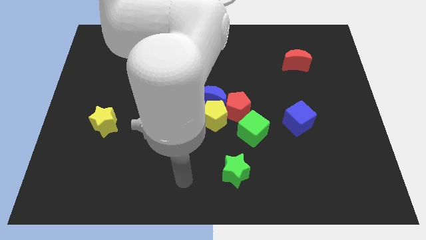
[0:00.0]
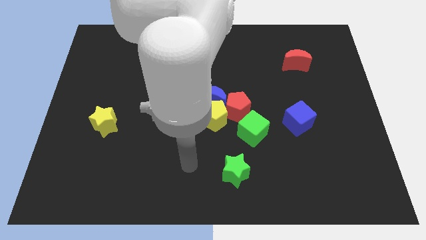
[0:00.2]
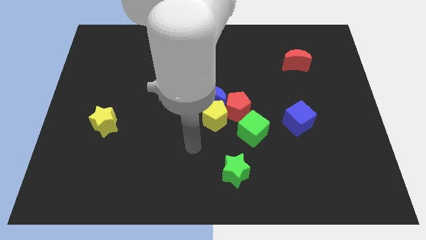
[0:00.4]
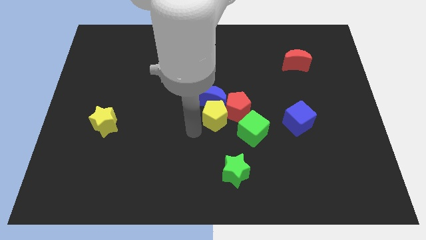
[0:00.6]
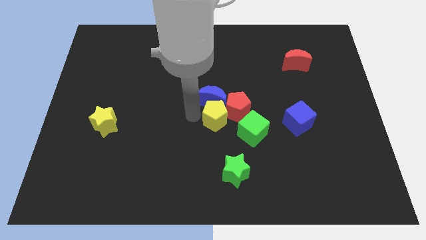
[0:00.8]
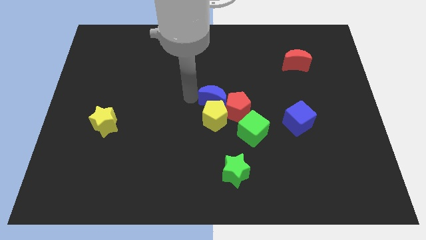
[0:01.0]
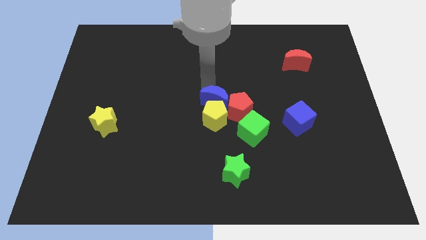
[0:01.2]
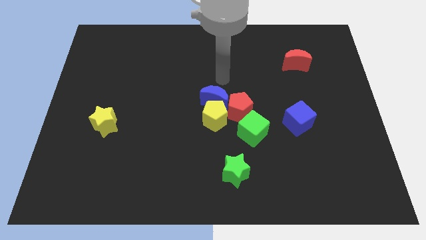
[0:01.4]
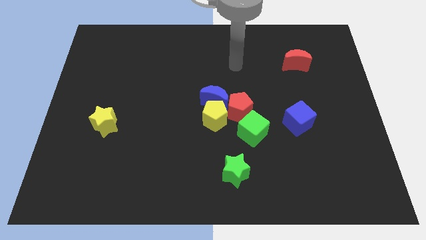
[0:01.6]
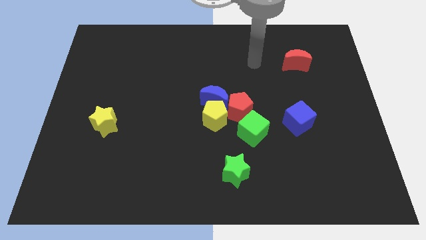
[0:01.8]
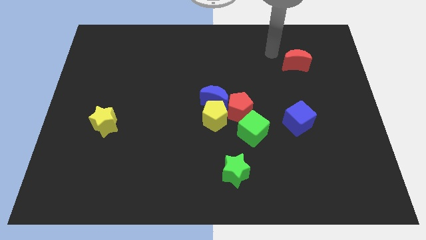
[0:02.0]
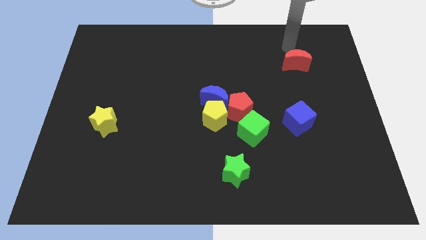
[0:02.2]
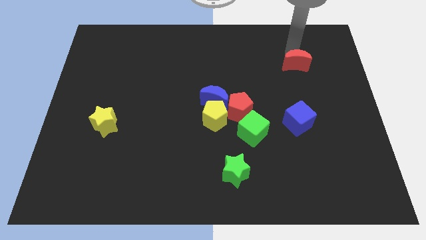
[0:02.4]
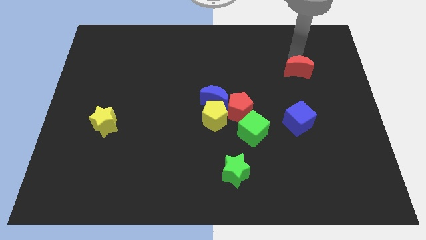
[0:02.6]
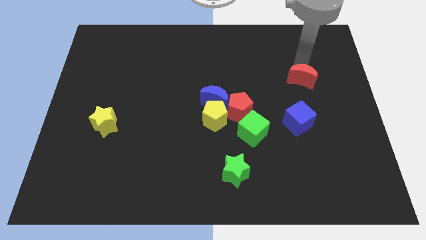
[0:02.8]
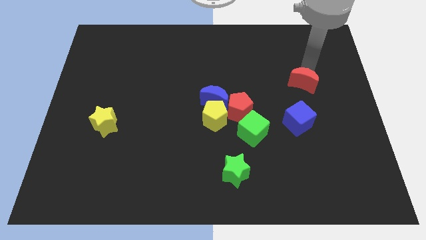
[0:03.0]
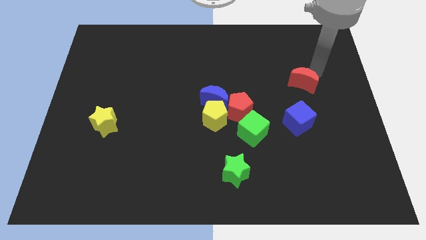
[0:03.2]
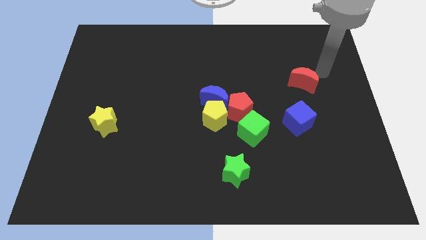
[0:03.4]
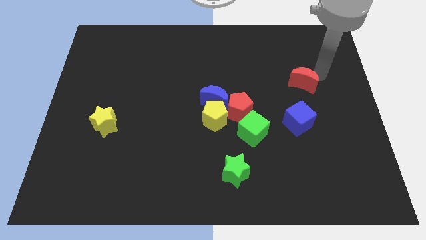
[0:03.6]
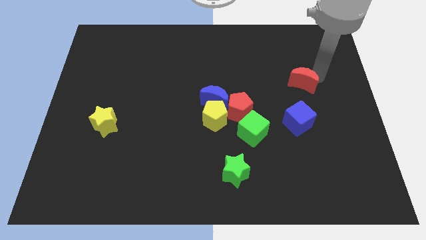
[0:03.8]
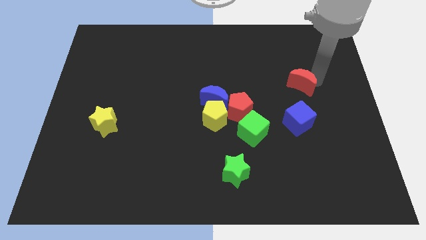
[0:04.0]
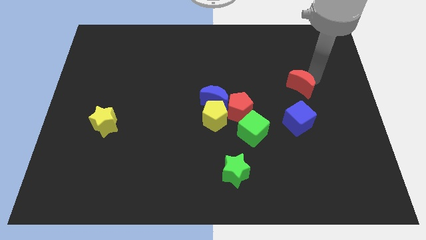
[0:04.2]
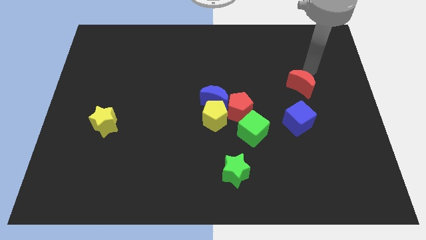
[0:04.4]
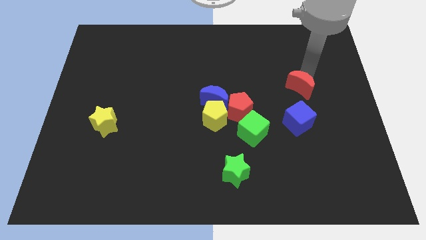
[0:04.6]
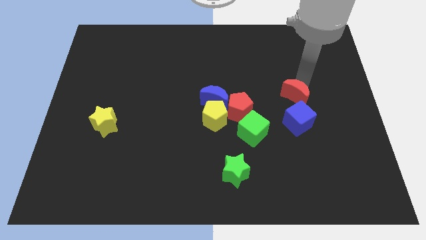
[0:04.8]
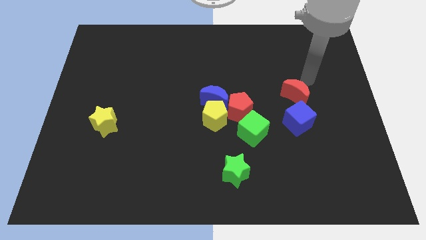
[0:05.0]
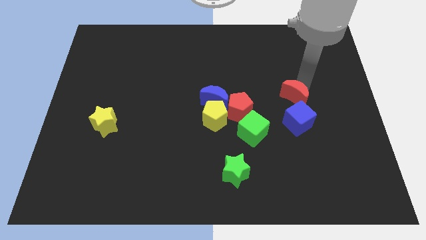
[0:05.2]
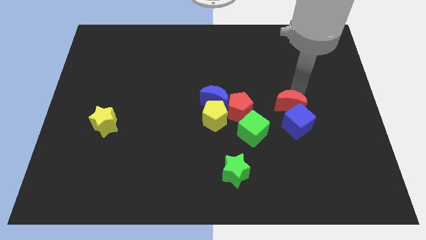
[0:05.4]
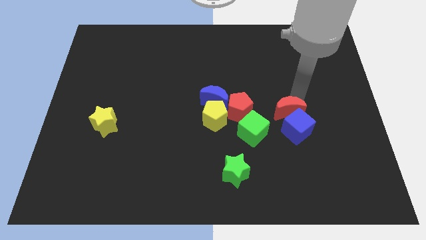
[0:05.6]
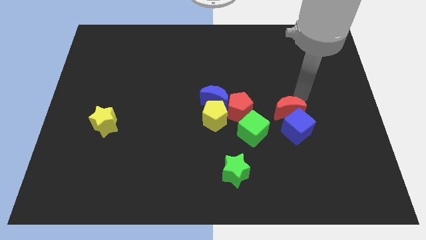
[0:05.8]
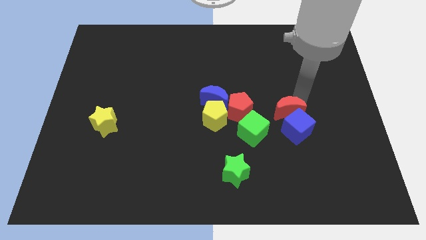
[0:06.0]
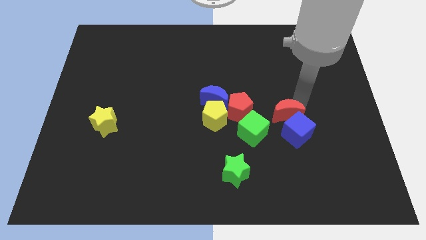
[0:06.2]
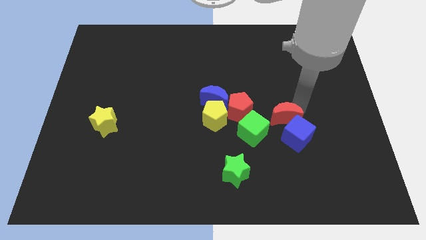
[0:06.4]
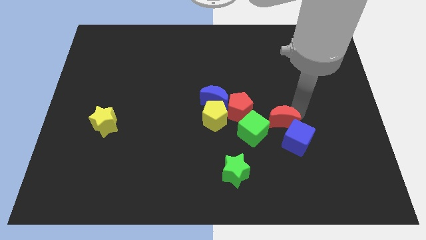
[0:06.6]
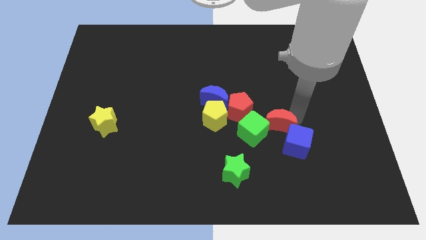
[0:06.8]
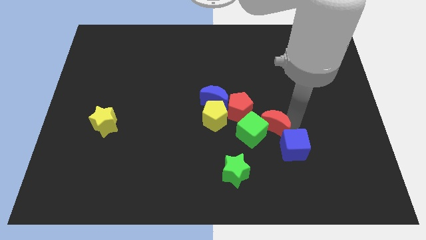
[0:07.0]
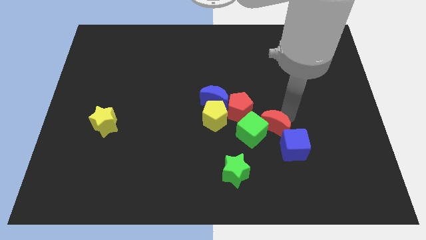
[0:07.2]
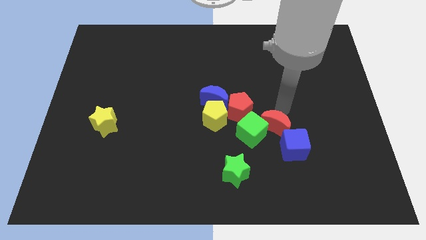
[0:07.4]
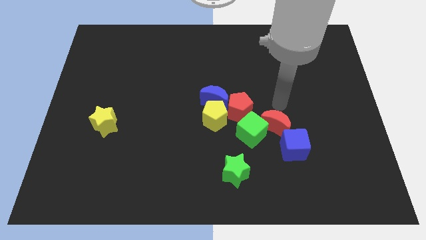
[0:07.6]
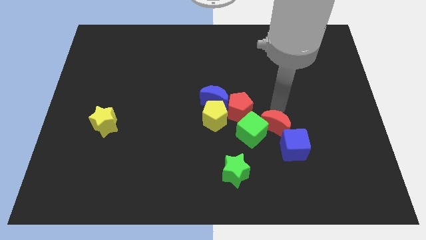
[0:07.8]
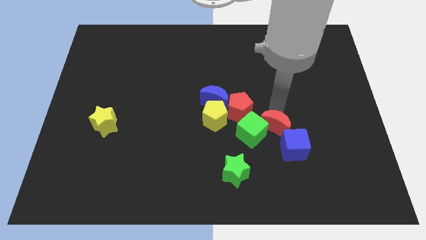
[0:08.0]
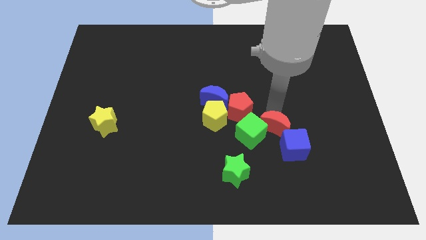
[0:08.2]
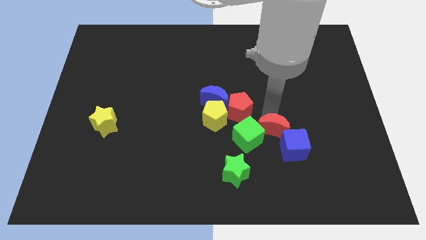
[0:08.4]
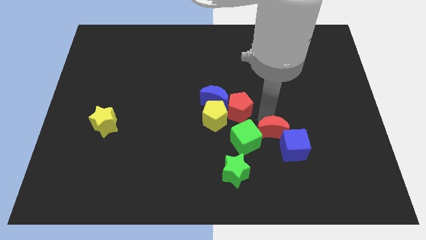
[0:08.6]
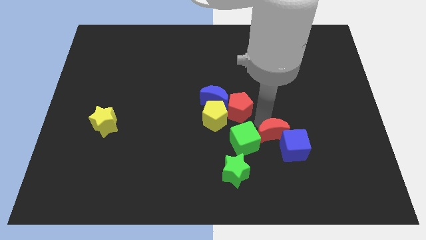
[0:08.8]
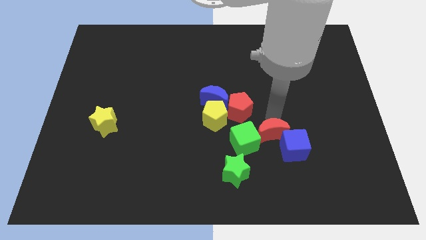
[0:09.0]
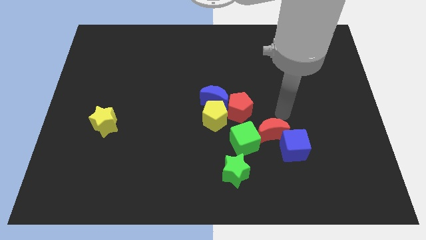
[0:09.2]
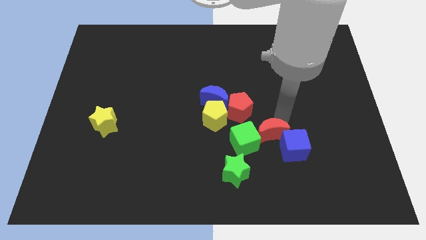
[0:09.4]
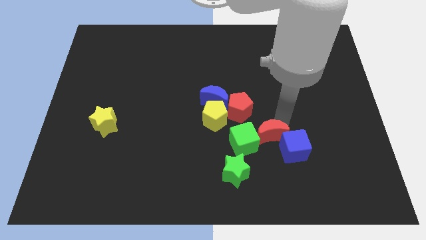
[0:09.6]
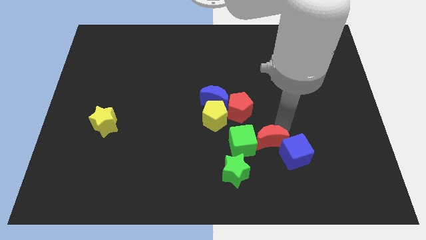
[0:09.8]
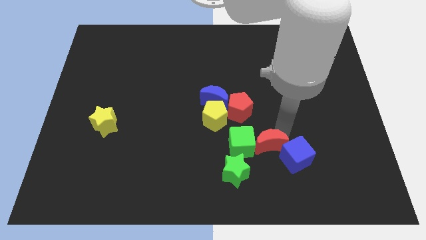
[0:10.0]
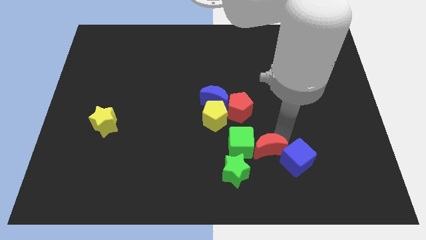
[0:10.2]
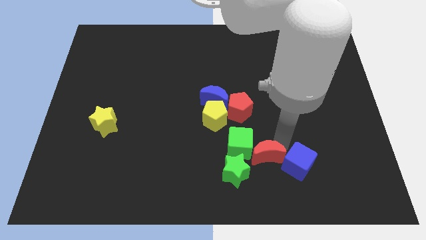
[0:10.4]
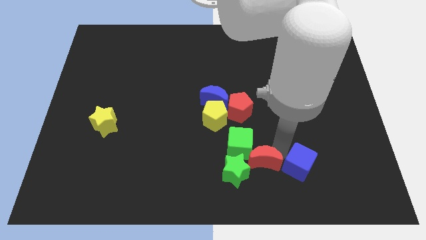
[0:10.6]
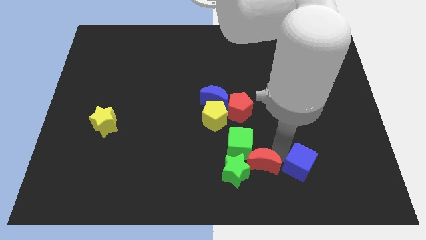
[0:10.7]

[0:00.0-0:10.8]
slide the red moon towards the green star

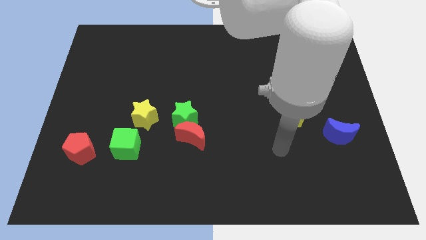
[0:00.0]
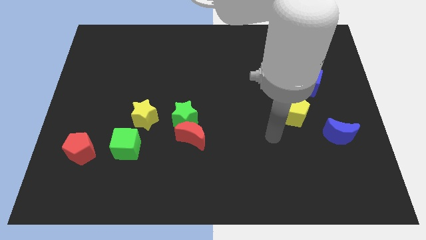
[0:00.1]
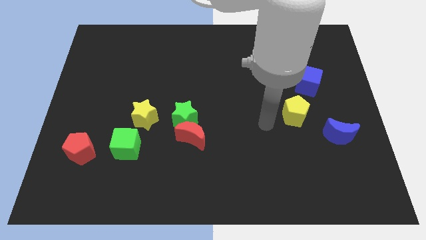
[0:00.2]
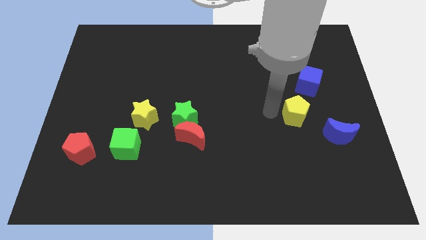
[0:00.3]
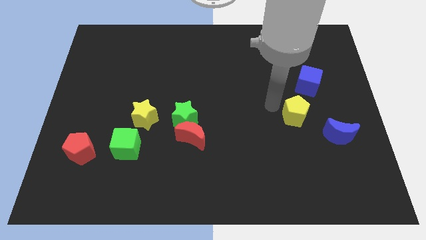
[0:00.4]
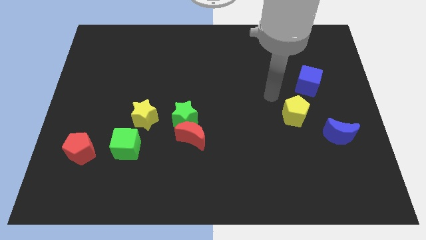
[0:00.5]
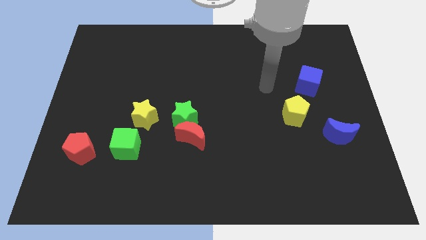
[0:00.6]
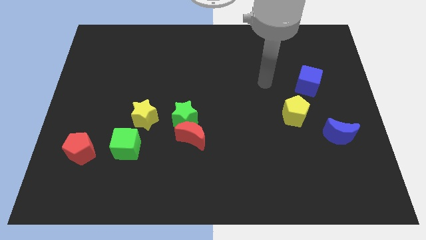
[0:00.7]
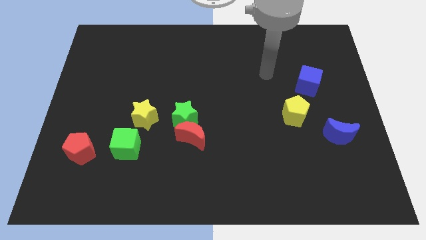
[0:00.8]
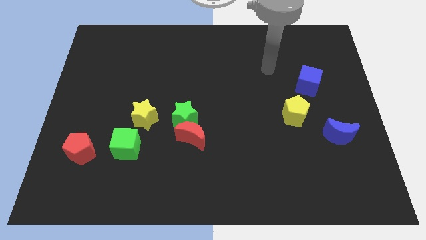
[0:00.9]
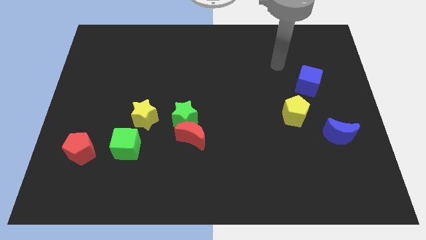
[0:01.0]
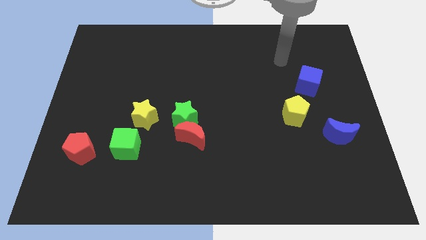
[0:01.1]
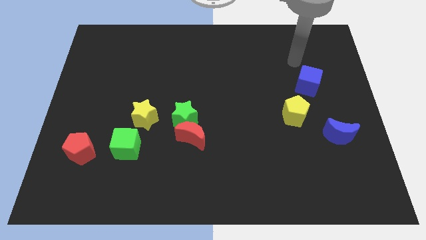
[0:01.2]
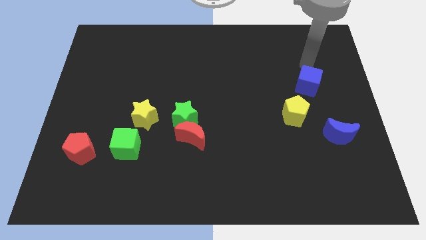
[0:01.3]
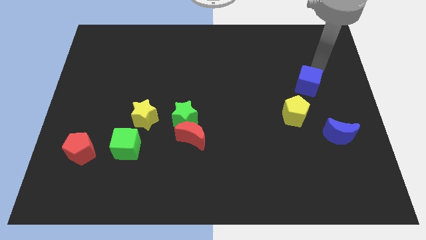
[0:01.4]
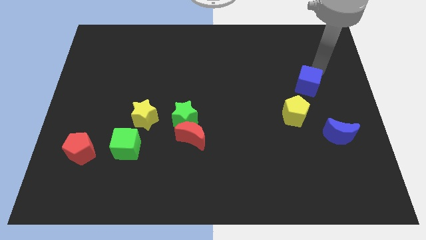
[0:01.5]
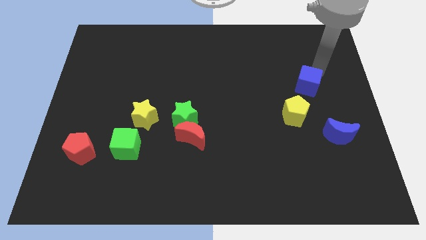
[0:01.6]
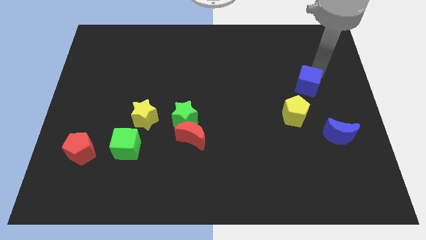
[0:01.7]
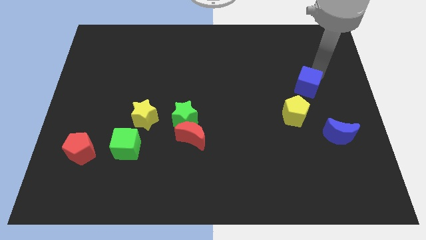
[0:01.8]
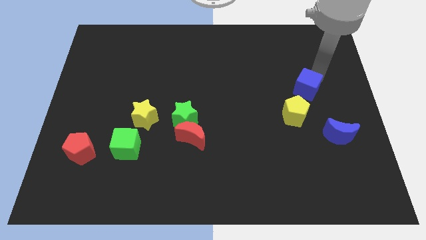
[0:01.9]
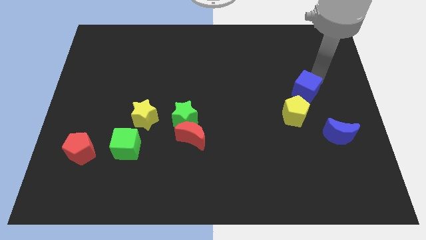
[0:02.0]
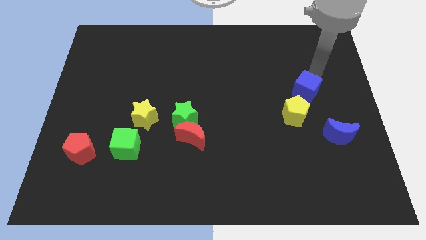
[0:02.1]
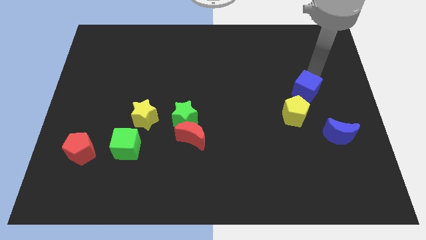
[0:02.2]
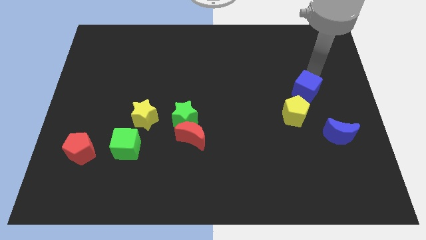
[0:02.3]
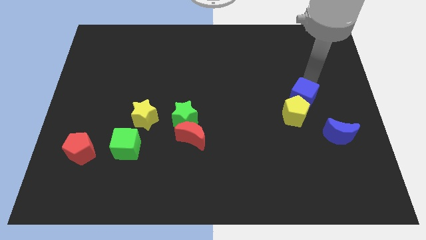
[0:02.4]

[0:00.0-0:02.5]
push the blue cube close to the yellow pentagon
